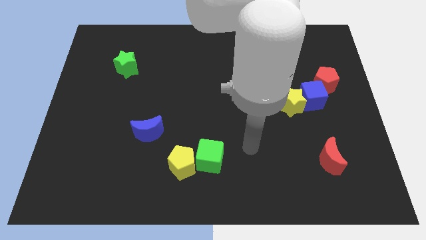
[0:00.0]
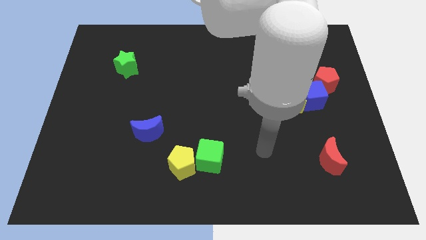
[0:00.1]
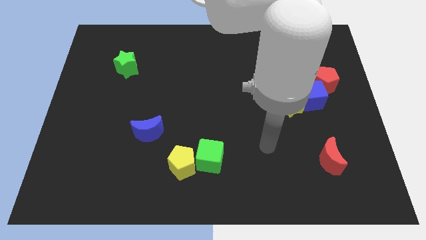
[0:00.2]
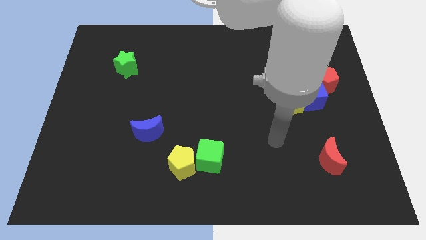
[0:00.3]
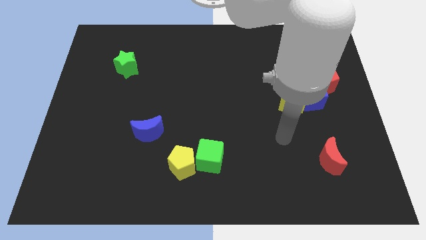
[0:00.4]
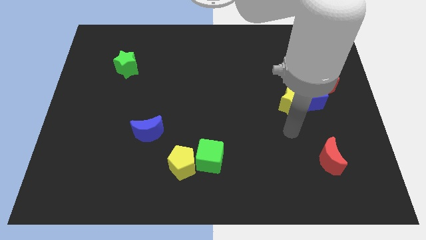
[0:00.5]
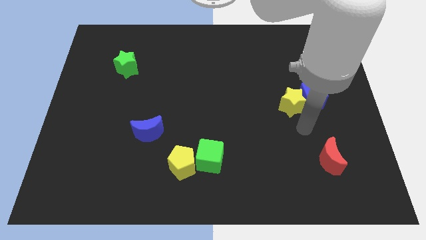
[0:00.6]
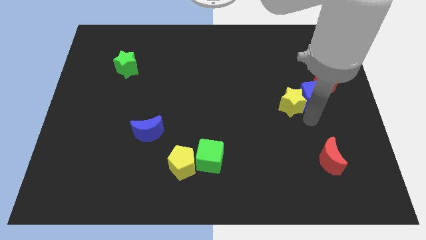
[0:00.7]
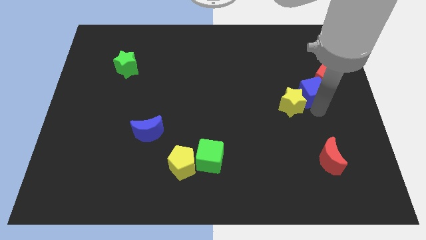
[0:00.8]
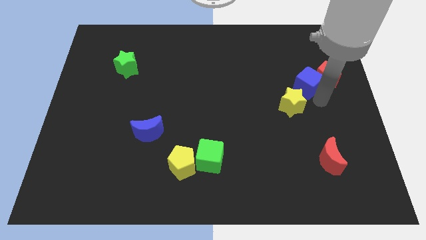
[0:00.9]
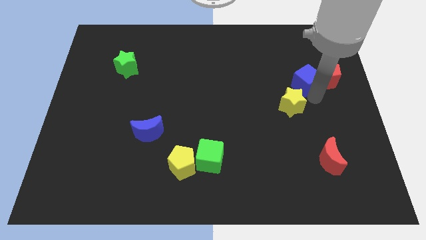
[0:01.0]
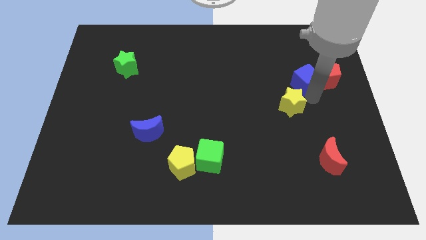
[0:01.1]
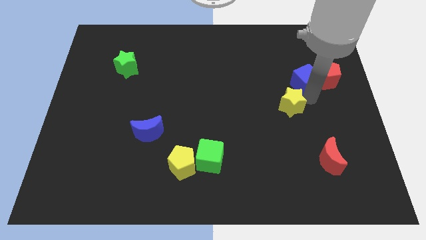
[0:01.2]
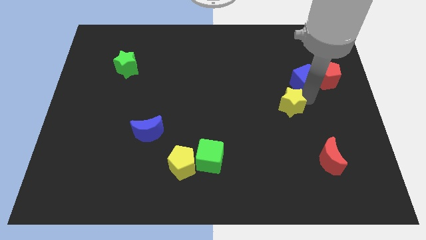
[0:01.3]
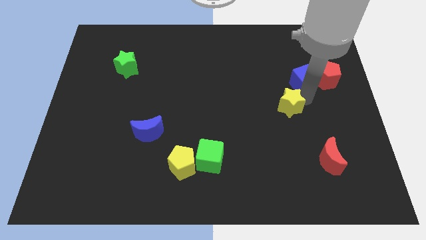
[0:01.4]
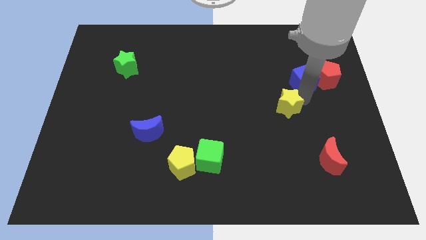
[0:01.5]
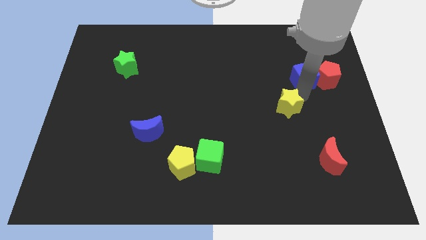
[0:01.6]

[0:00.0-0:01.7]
move the yellow star away from the blue cube

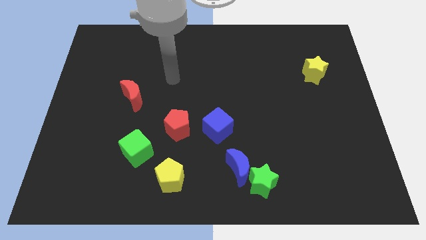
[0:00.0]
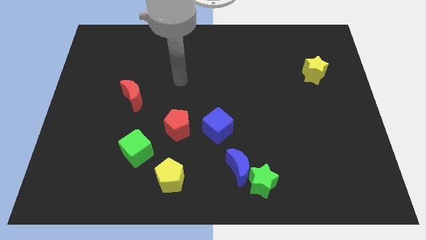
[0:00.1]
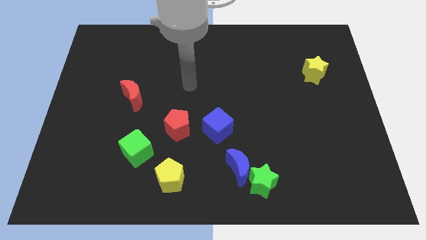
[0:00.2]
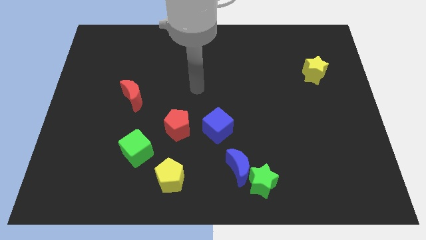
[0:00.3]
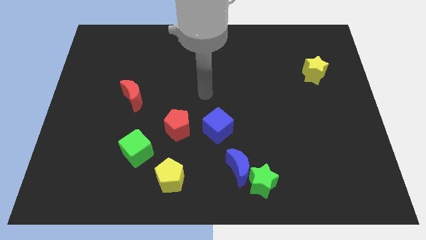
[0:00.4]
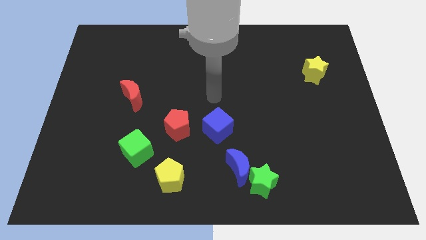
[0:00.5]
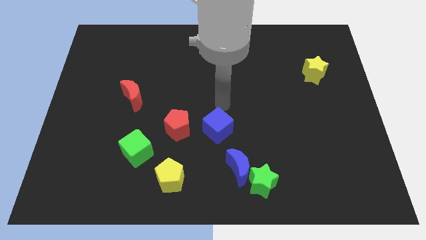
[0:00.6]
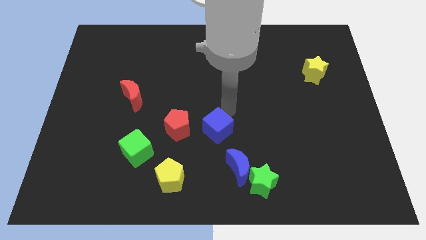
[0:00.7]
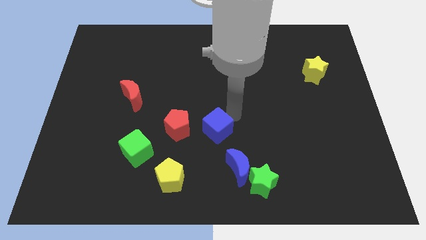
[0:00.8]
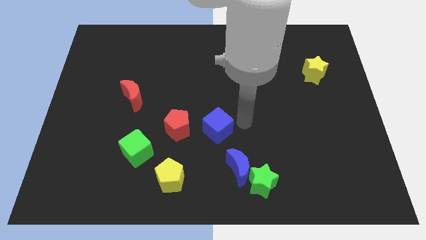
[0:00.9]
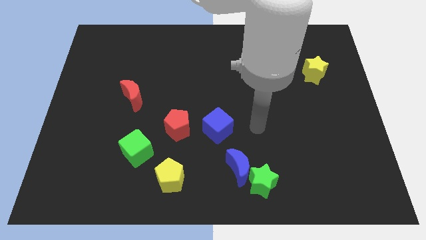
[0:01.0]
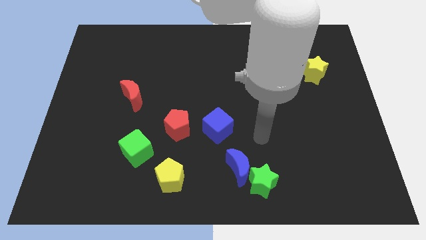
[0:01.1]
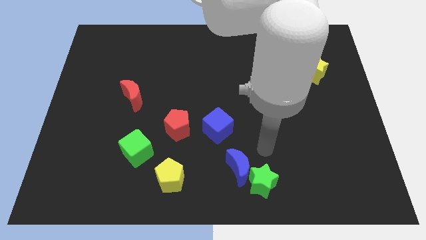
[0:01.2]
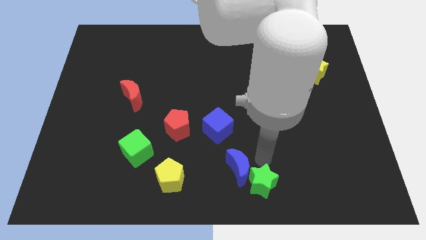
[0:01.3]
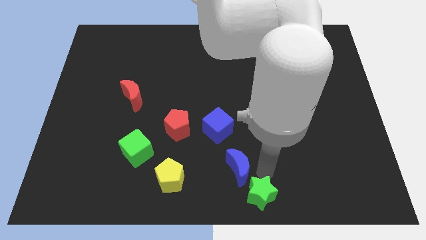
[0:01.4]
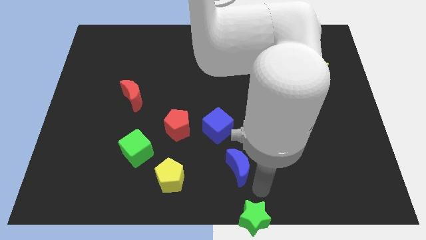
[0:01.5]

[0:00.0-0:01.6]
separate the blue moon from the green star

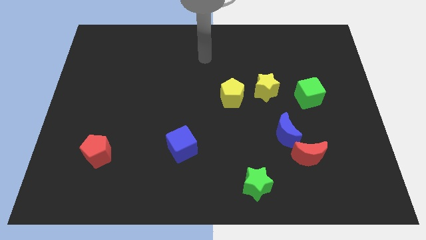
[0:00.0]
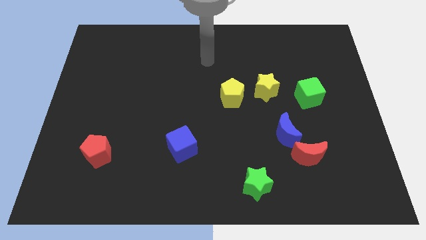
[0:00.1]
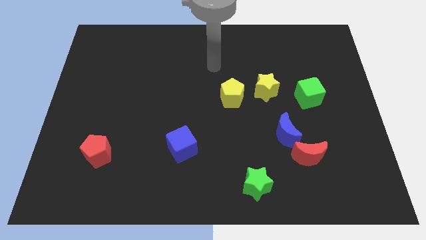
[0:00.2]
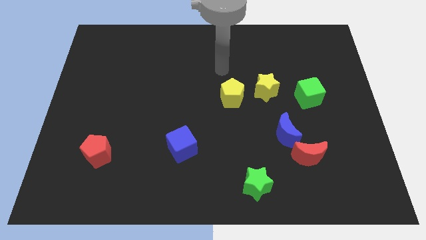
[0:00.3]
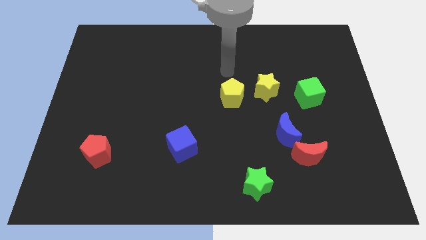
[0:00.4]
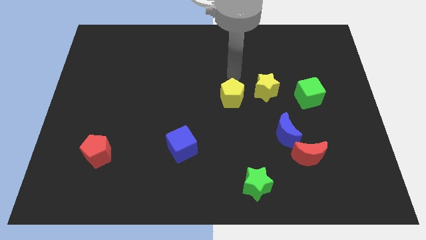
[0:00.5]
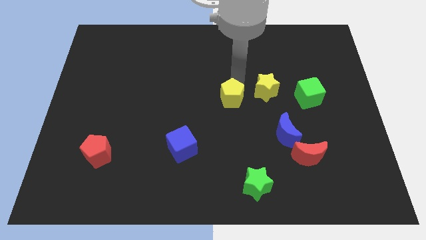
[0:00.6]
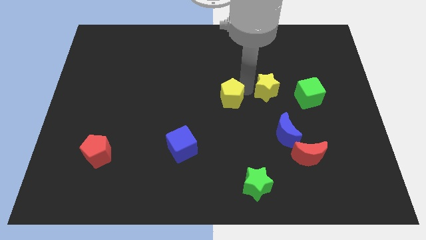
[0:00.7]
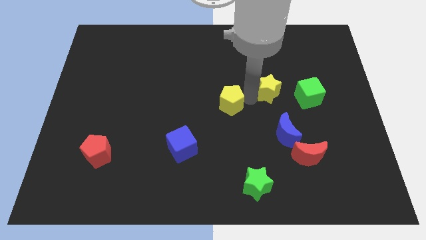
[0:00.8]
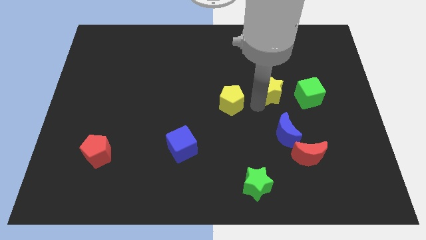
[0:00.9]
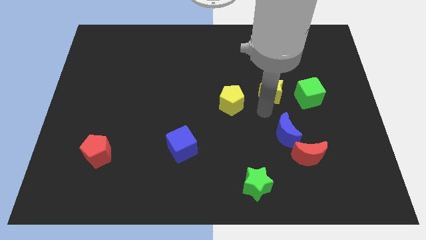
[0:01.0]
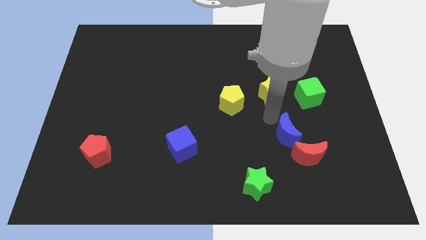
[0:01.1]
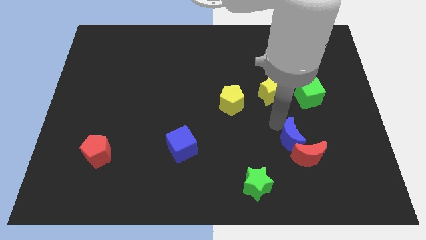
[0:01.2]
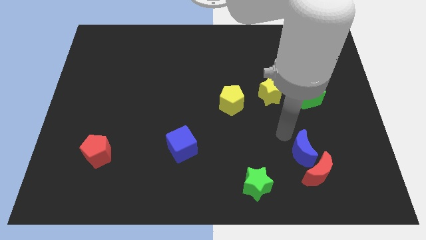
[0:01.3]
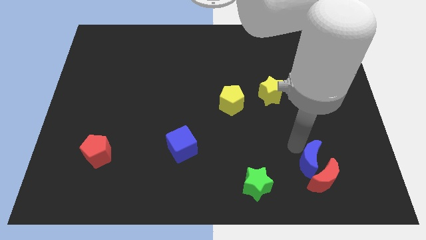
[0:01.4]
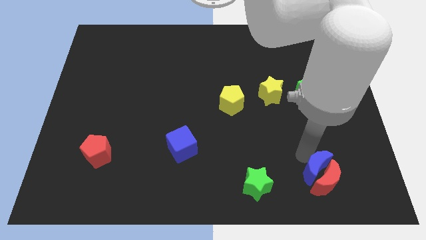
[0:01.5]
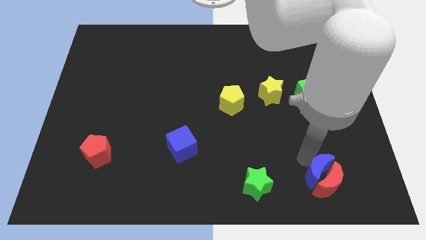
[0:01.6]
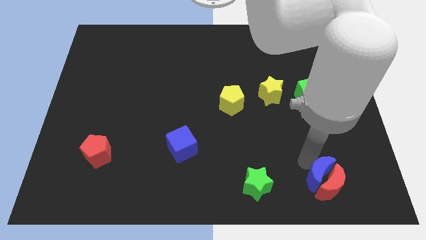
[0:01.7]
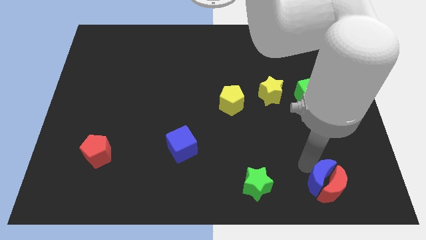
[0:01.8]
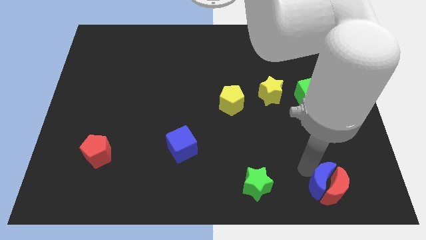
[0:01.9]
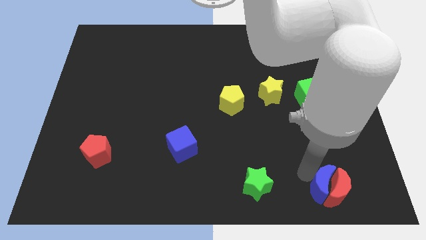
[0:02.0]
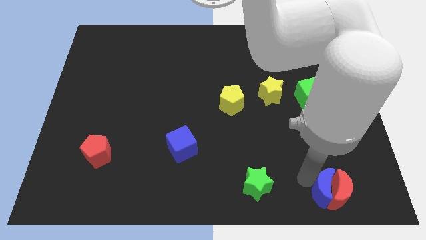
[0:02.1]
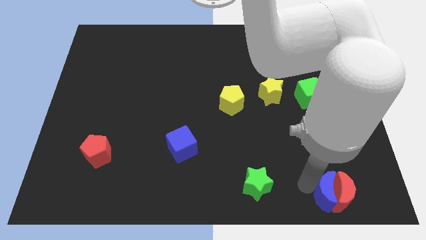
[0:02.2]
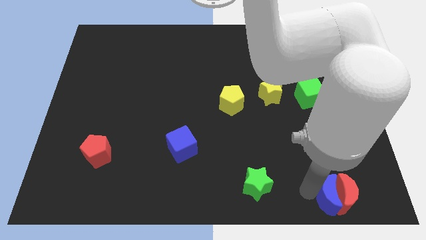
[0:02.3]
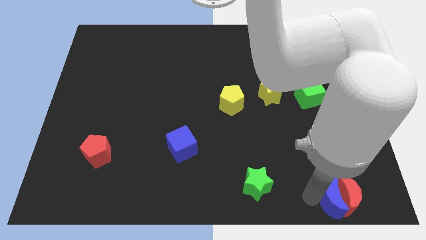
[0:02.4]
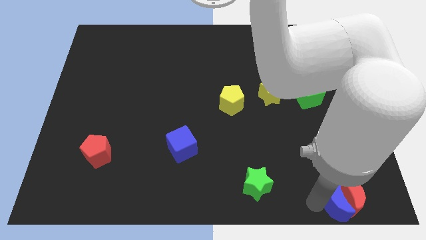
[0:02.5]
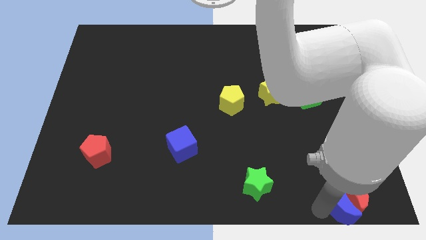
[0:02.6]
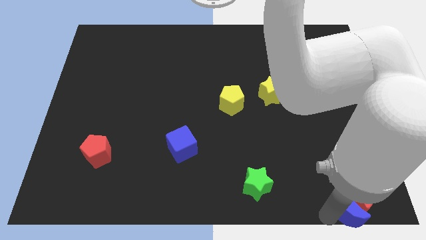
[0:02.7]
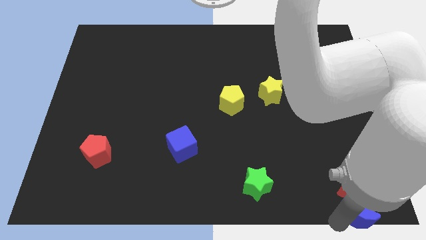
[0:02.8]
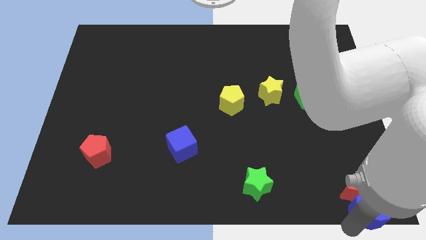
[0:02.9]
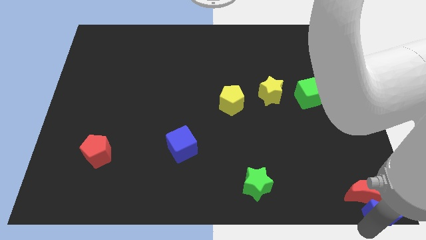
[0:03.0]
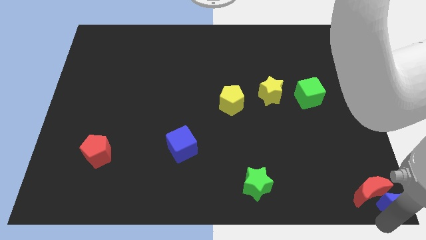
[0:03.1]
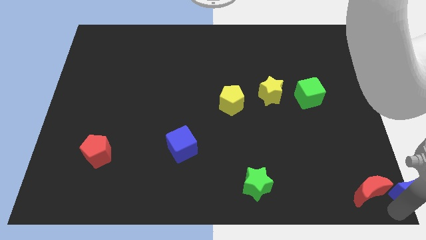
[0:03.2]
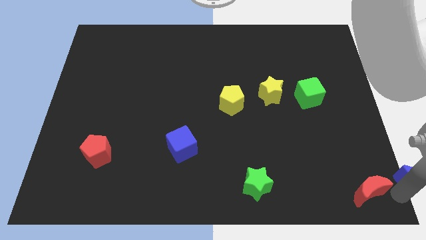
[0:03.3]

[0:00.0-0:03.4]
pull the red moon apart from the blue moon

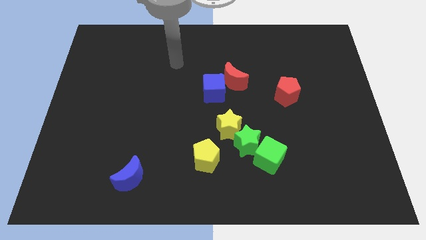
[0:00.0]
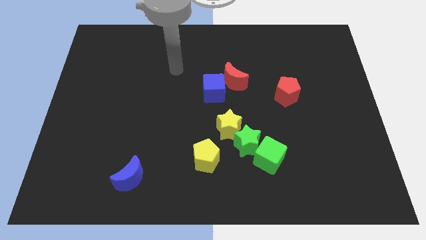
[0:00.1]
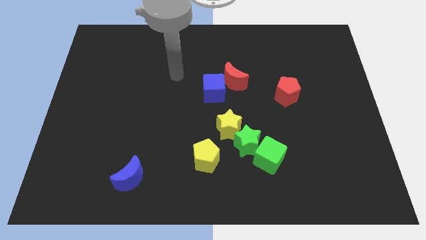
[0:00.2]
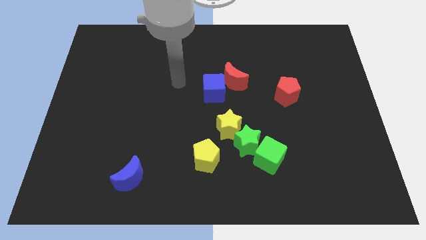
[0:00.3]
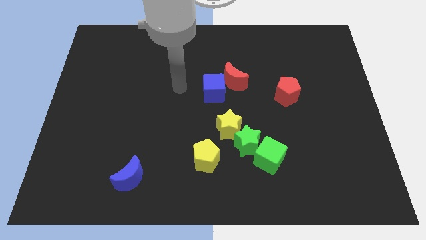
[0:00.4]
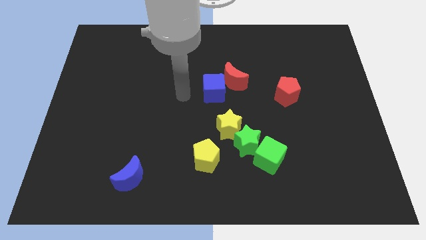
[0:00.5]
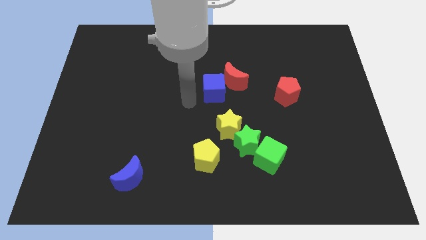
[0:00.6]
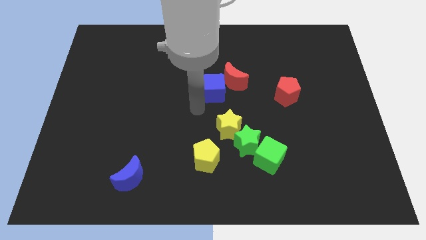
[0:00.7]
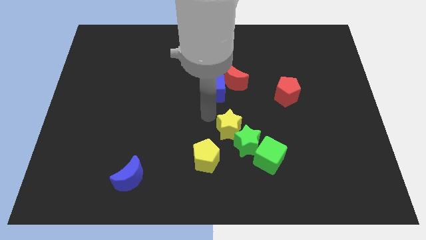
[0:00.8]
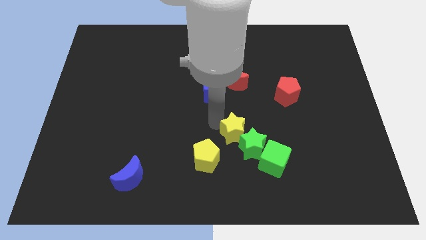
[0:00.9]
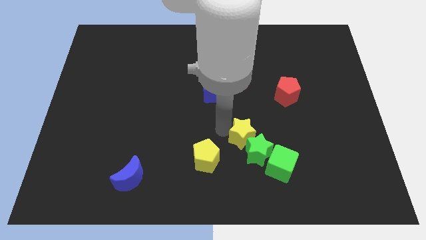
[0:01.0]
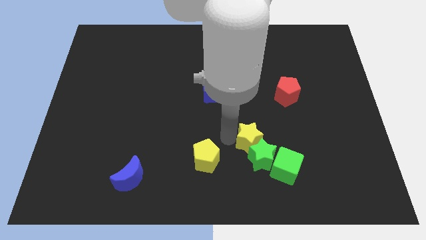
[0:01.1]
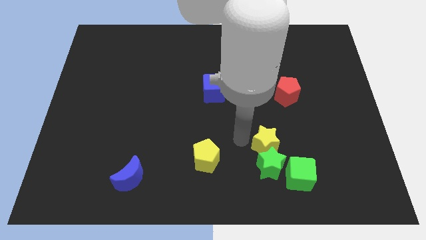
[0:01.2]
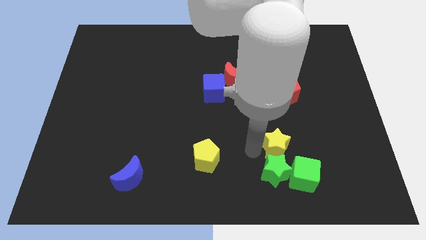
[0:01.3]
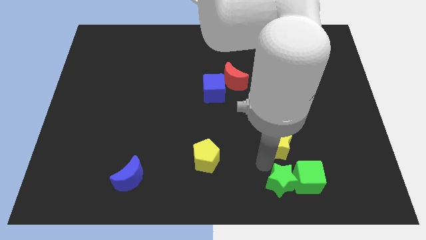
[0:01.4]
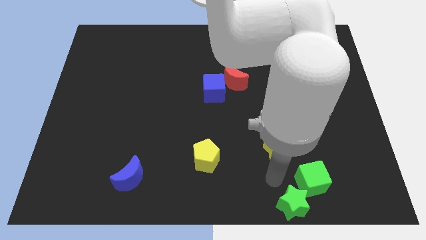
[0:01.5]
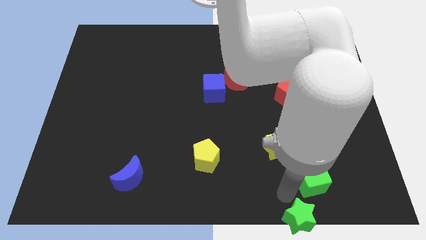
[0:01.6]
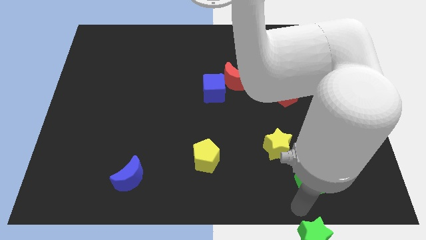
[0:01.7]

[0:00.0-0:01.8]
move the green cube away from the green star

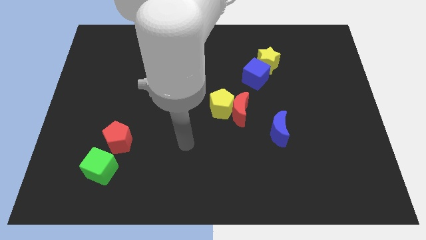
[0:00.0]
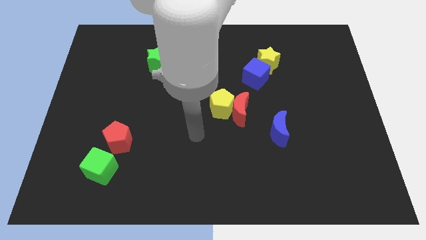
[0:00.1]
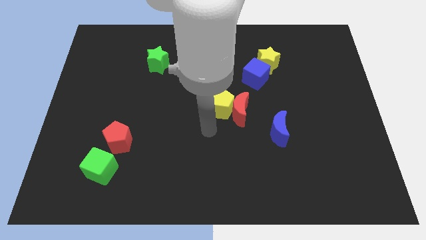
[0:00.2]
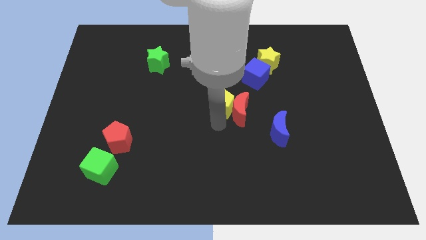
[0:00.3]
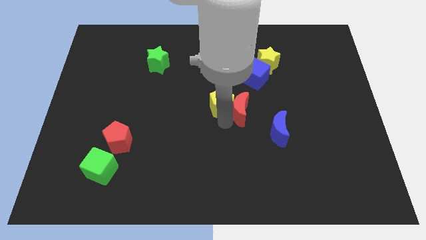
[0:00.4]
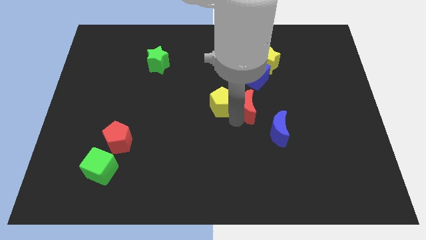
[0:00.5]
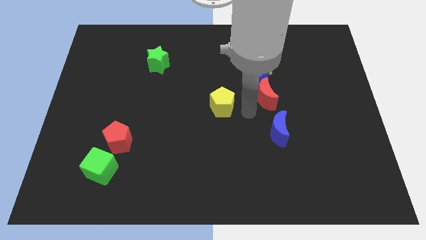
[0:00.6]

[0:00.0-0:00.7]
separate the yellow pentagon from the red moon

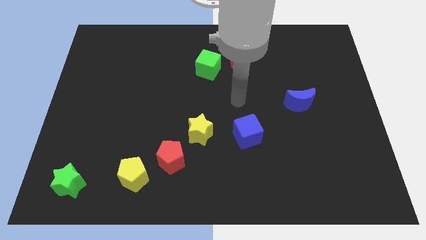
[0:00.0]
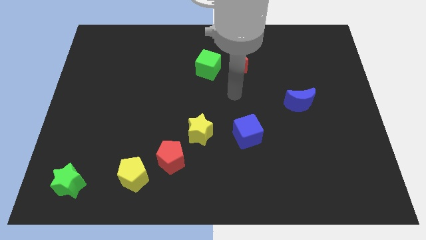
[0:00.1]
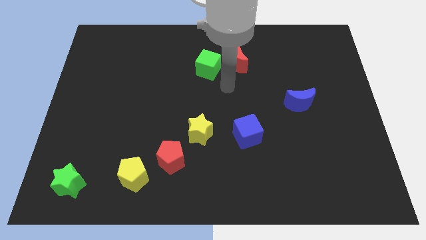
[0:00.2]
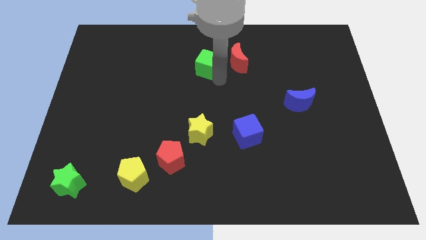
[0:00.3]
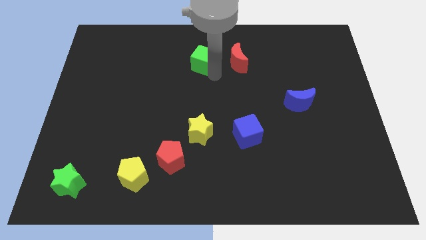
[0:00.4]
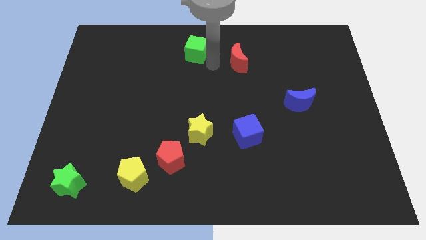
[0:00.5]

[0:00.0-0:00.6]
pull the red moon apart from the green cube
